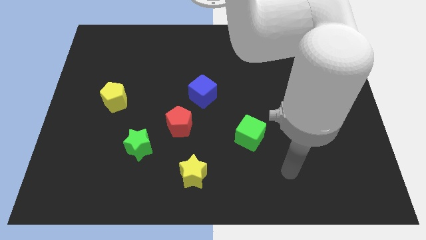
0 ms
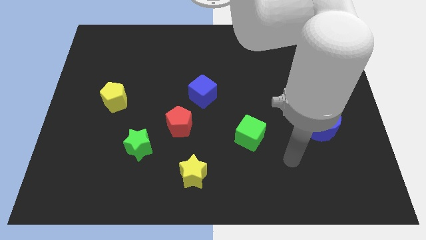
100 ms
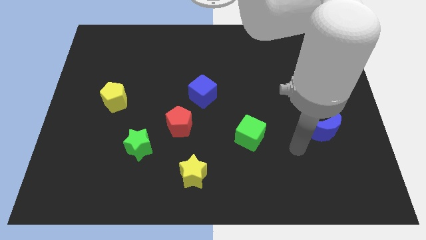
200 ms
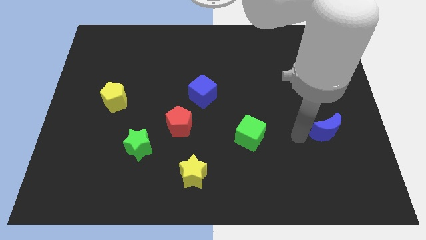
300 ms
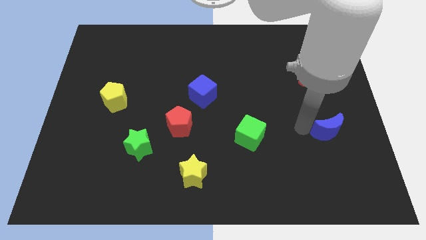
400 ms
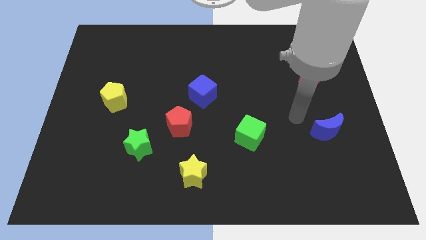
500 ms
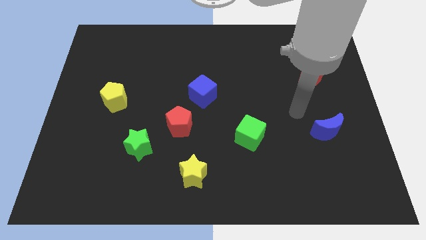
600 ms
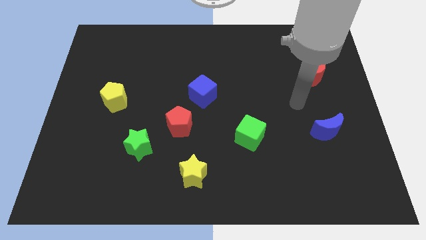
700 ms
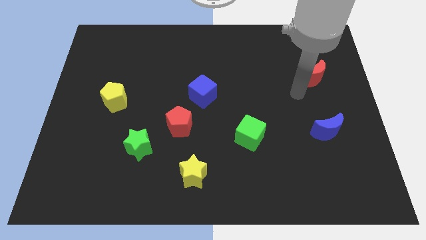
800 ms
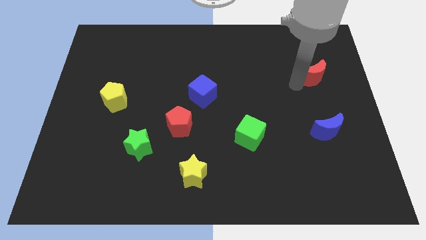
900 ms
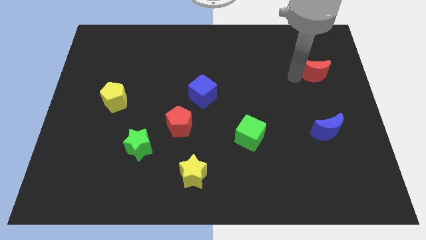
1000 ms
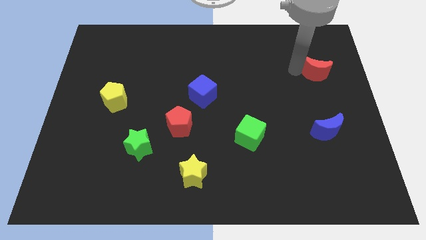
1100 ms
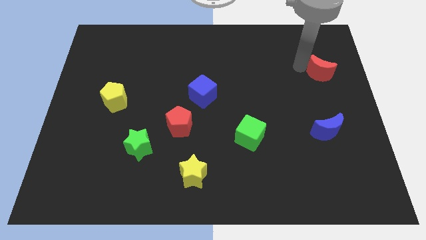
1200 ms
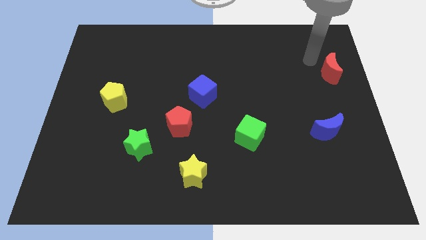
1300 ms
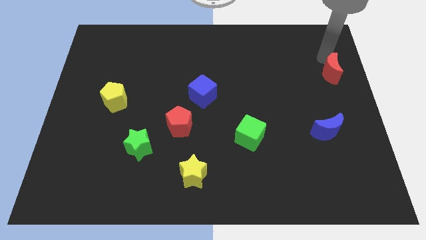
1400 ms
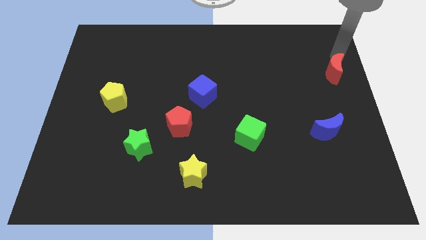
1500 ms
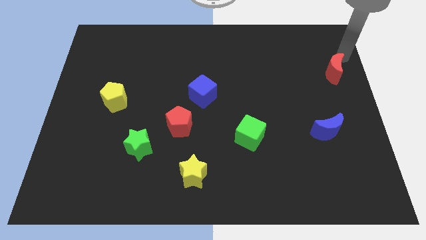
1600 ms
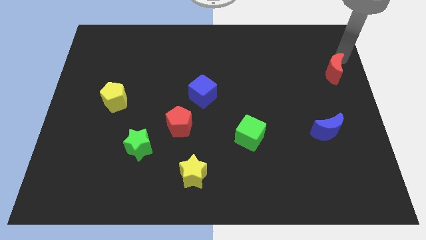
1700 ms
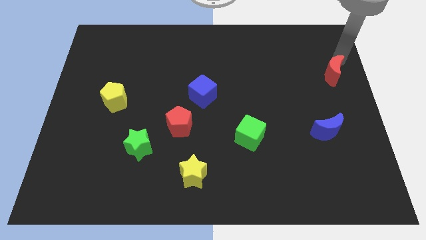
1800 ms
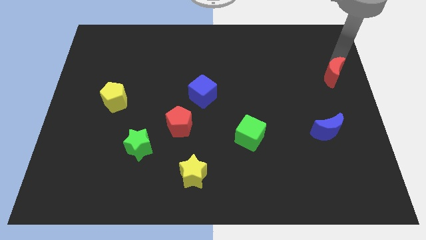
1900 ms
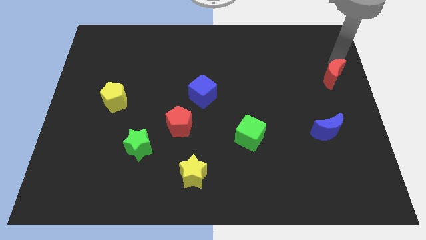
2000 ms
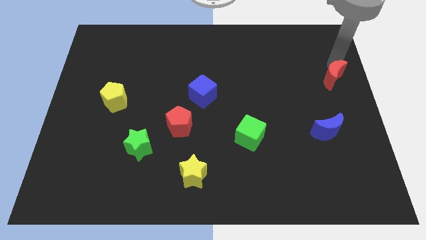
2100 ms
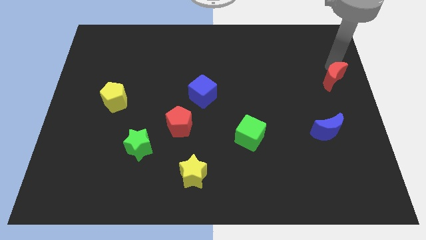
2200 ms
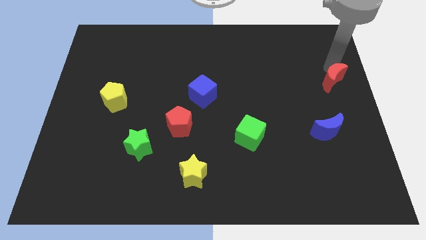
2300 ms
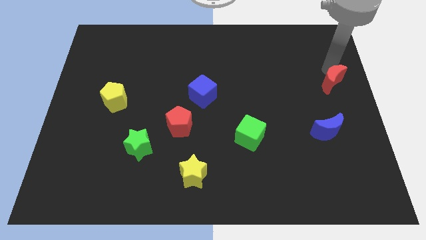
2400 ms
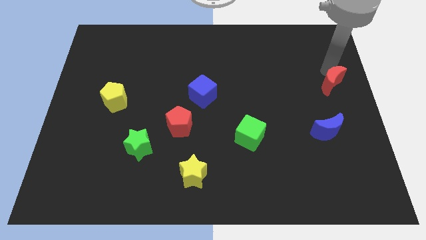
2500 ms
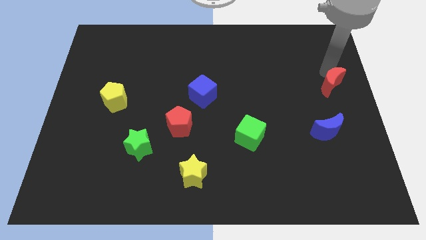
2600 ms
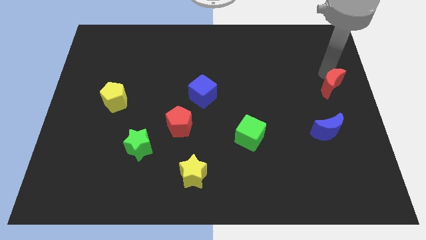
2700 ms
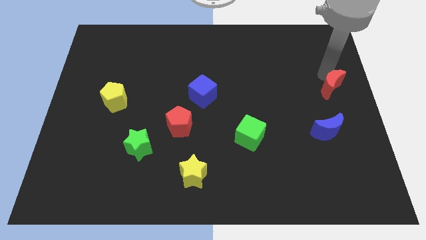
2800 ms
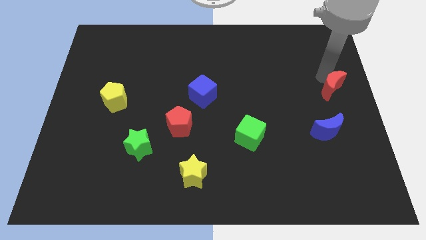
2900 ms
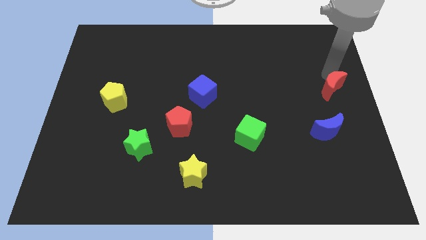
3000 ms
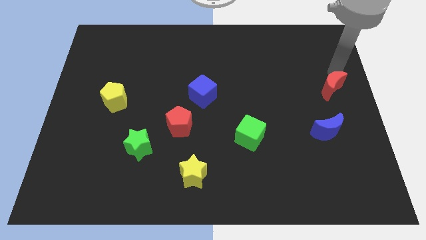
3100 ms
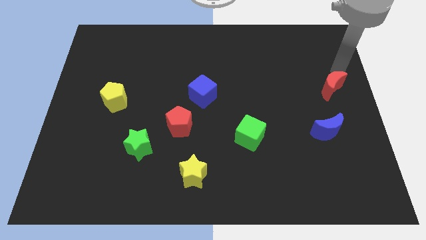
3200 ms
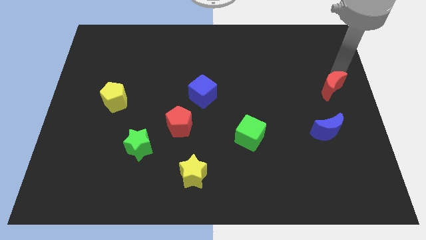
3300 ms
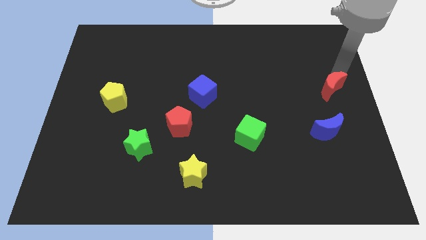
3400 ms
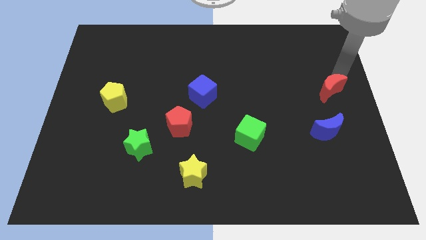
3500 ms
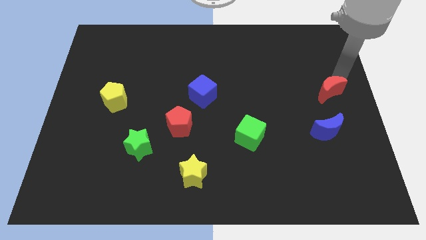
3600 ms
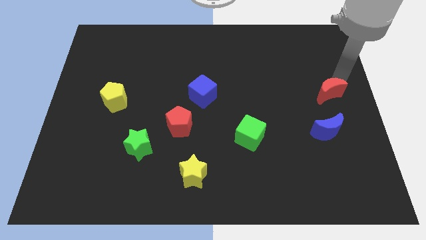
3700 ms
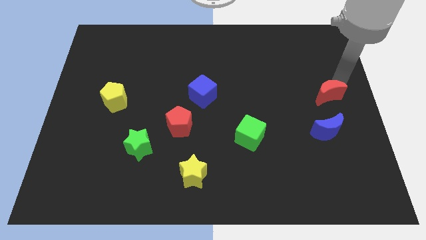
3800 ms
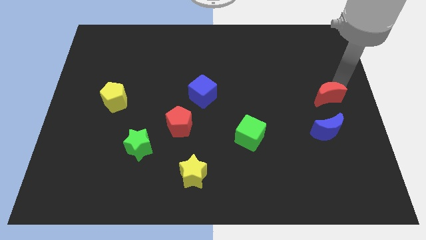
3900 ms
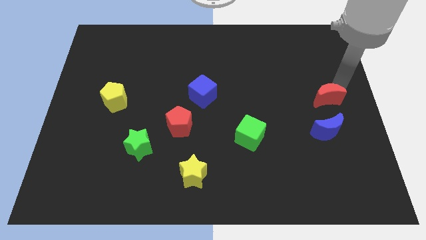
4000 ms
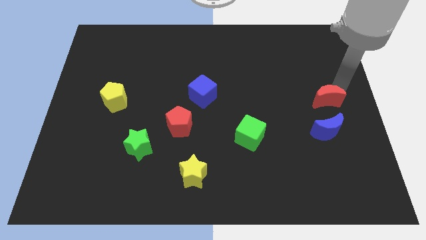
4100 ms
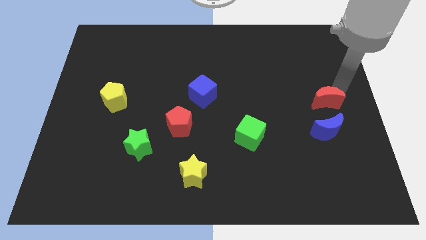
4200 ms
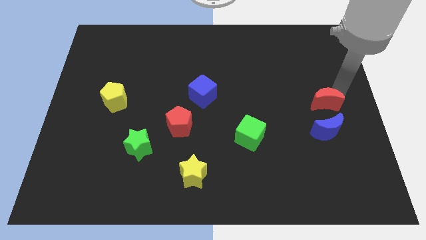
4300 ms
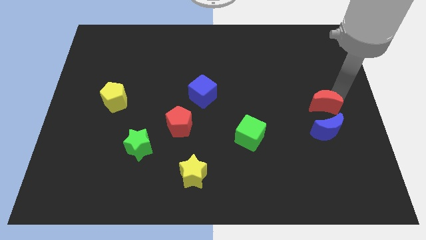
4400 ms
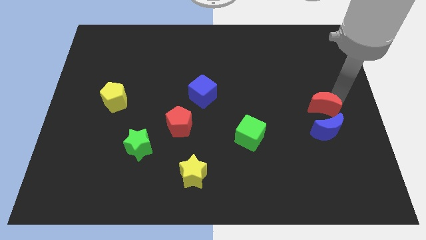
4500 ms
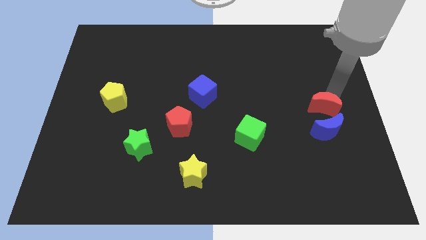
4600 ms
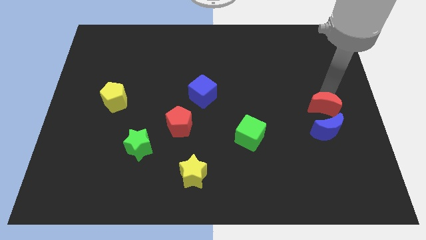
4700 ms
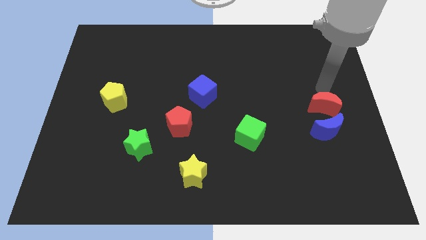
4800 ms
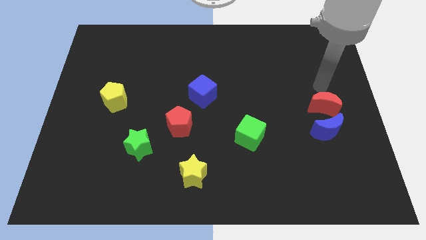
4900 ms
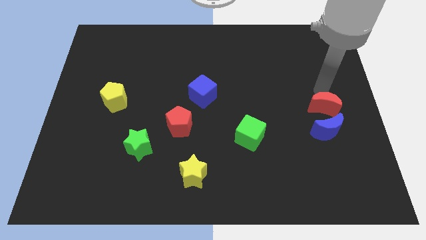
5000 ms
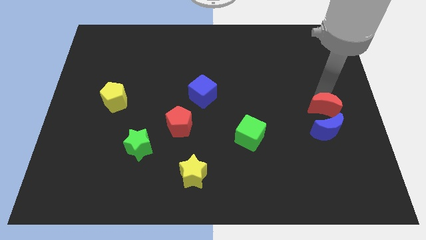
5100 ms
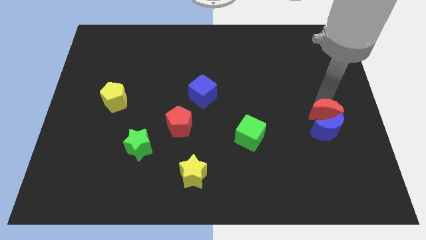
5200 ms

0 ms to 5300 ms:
put the red moon to the blue moon

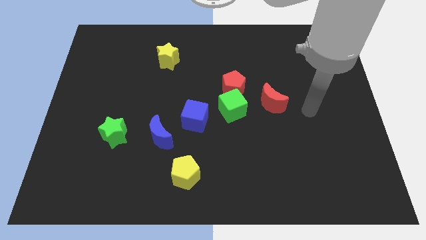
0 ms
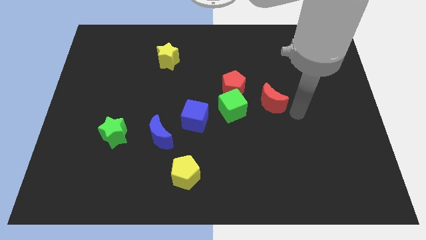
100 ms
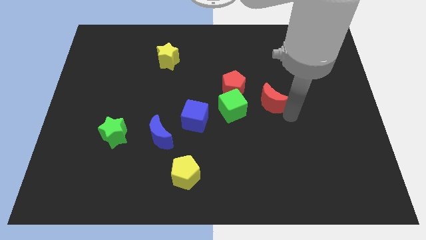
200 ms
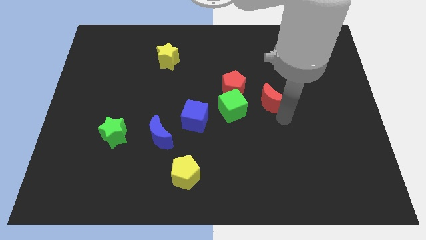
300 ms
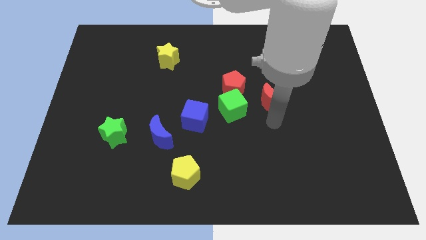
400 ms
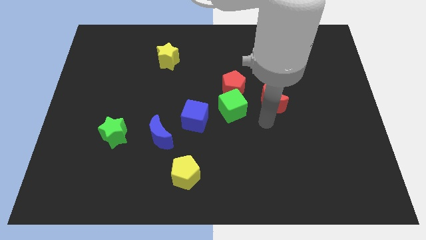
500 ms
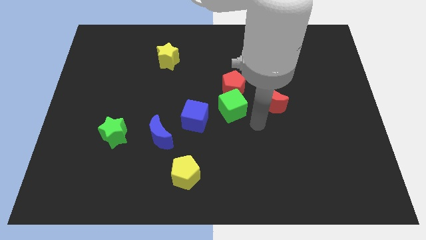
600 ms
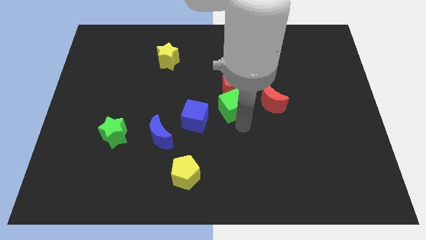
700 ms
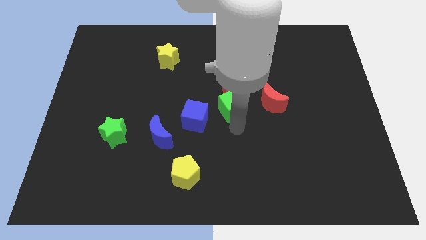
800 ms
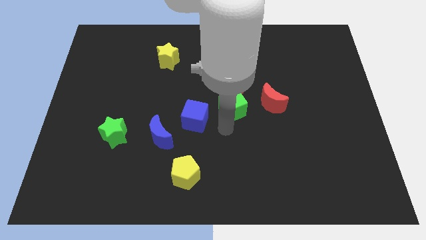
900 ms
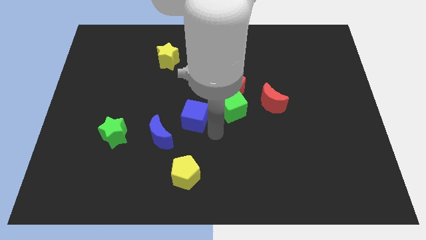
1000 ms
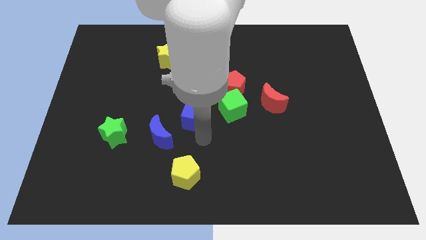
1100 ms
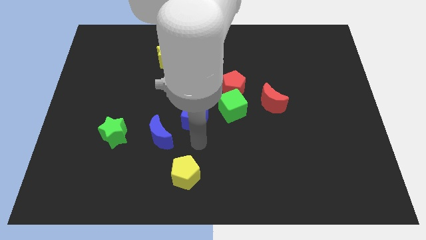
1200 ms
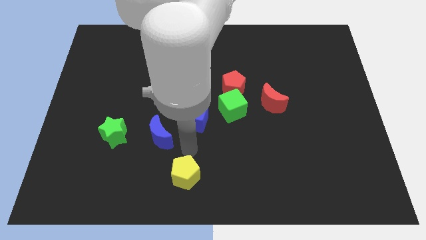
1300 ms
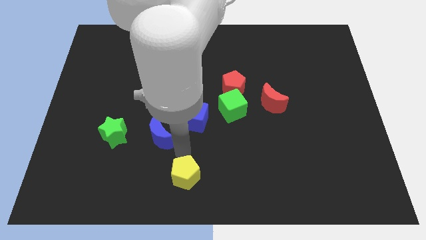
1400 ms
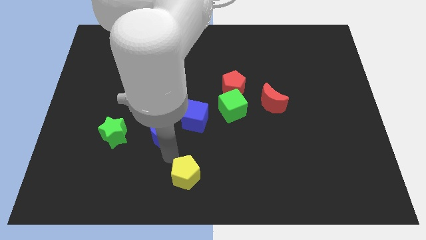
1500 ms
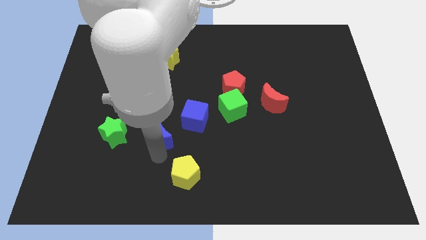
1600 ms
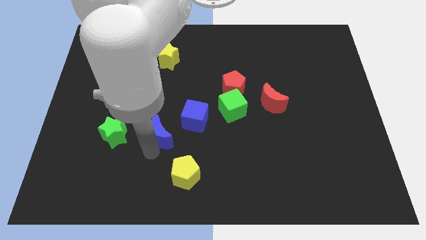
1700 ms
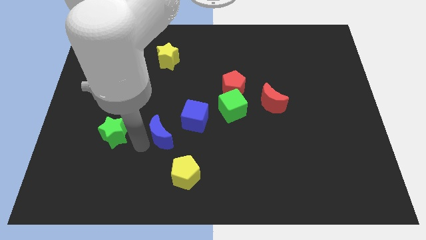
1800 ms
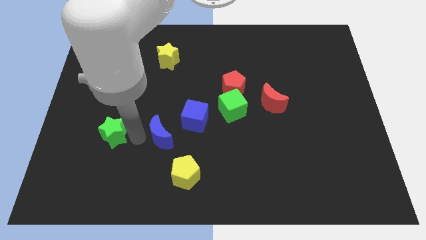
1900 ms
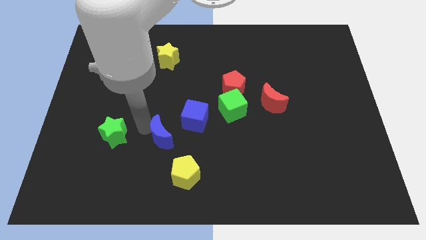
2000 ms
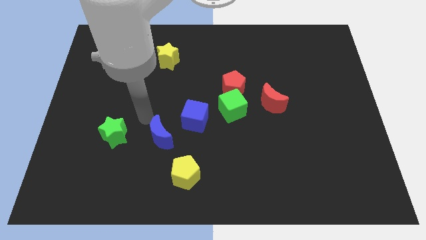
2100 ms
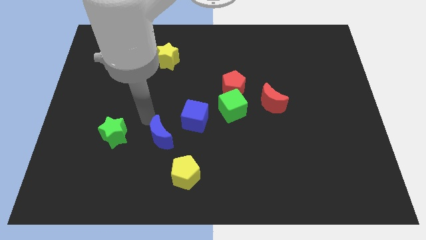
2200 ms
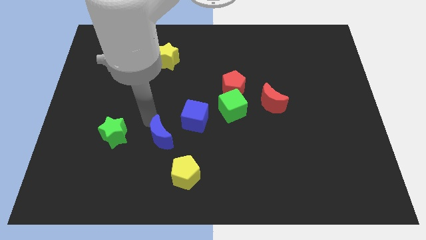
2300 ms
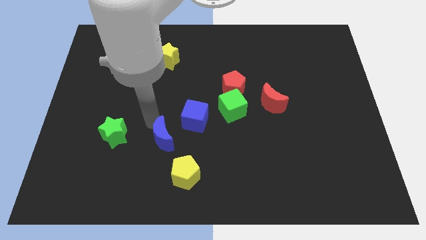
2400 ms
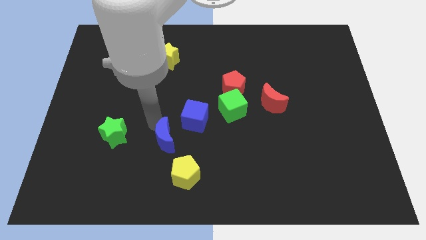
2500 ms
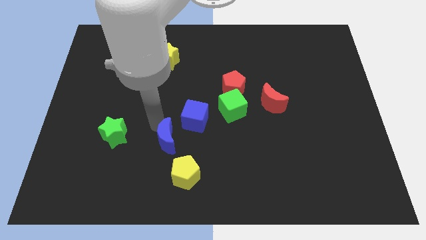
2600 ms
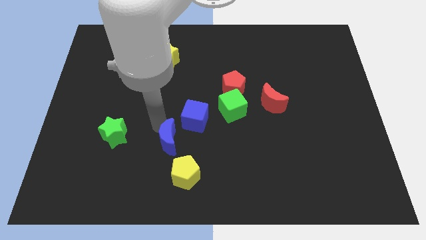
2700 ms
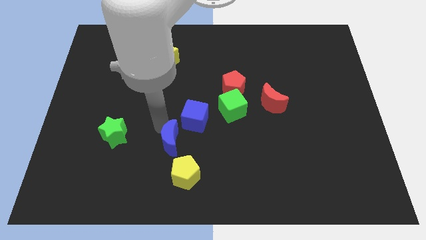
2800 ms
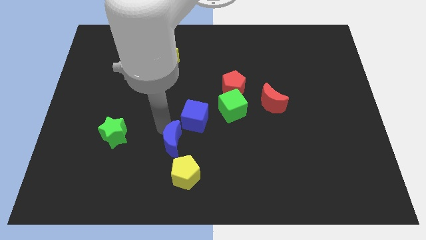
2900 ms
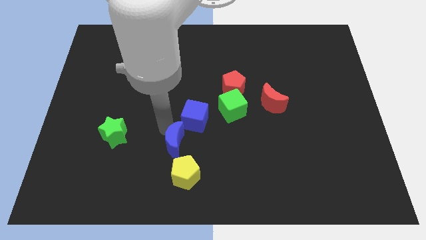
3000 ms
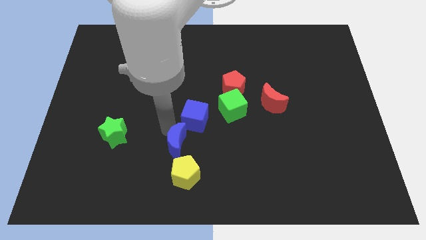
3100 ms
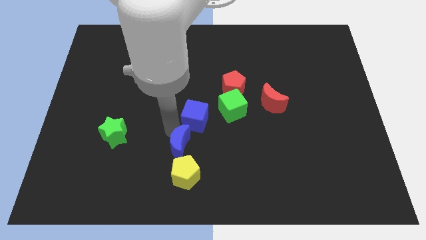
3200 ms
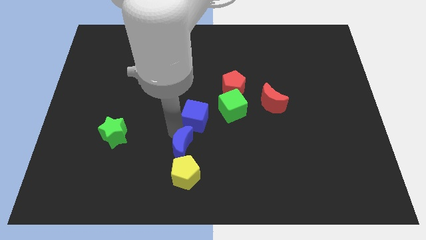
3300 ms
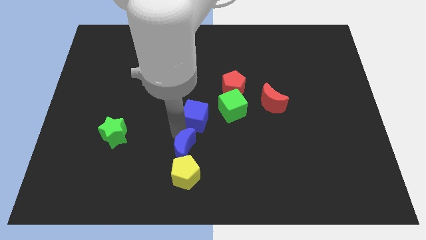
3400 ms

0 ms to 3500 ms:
put the blue moon towards the yellow pentagon
